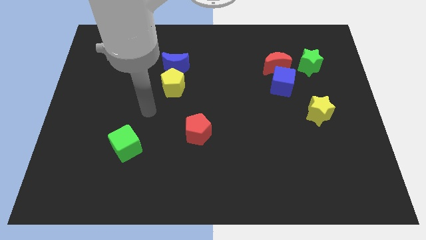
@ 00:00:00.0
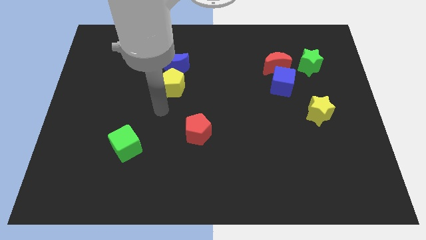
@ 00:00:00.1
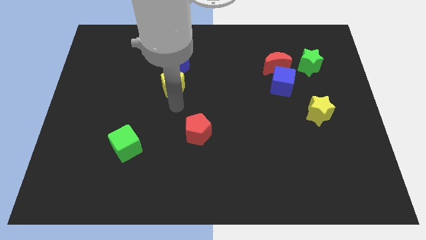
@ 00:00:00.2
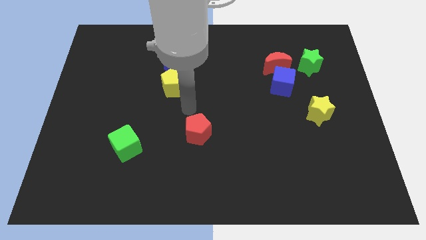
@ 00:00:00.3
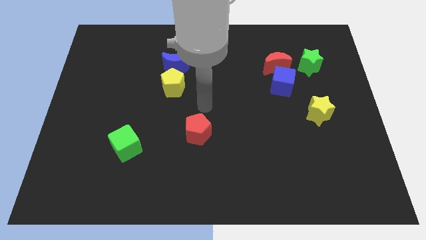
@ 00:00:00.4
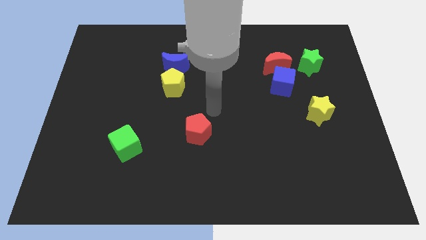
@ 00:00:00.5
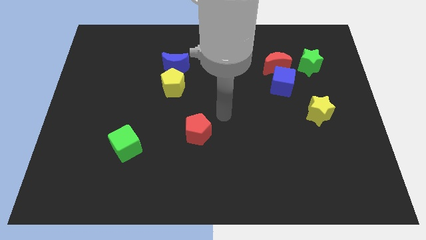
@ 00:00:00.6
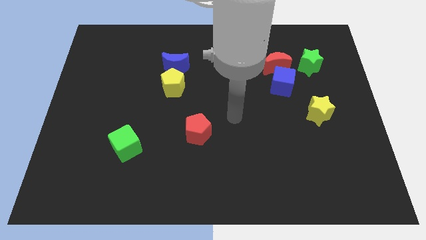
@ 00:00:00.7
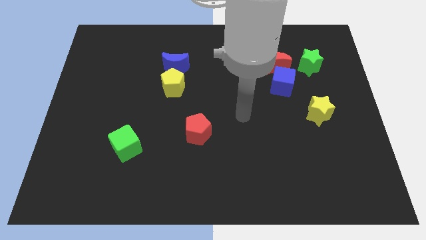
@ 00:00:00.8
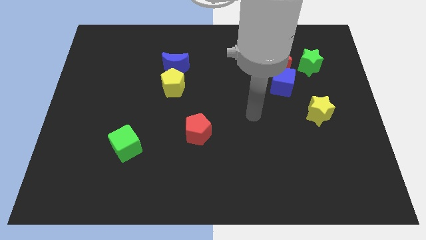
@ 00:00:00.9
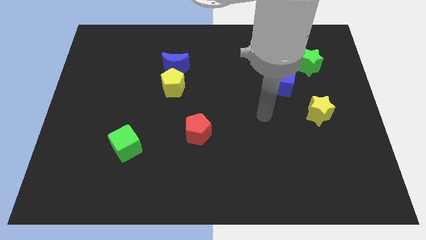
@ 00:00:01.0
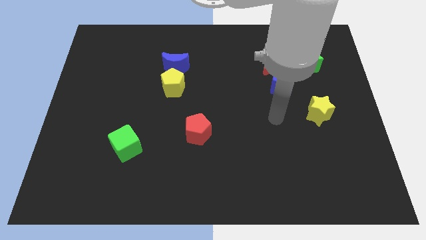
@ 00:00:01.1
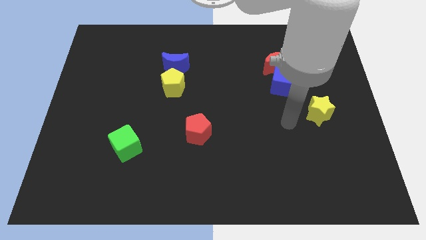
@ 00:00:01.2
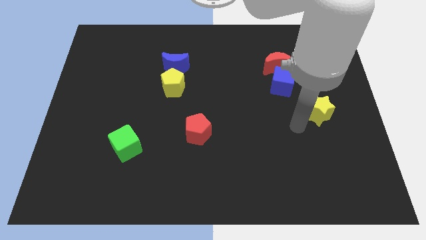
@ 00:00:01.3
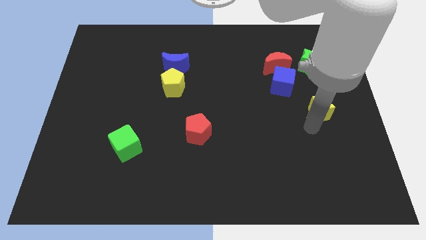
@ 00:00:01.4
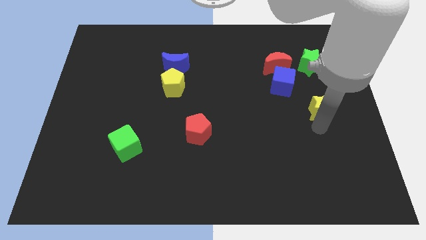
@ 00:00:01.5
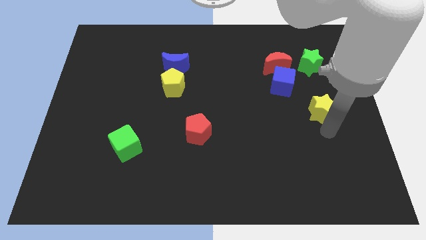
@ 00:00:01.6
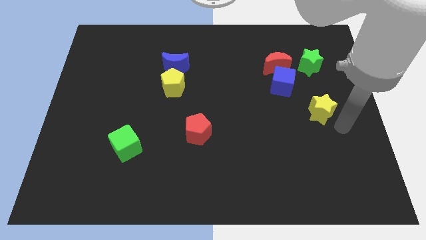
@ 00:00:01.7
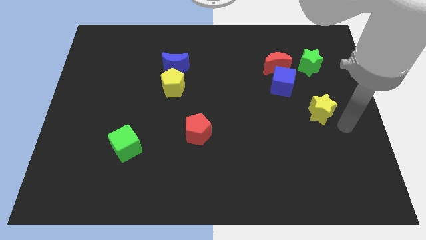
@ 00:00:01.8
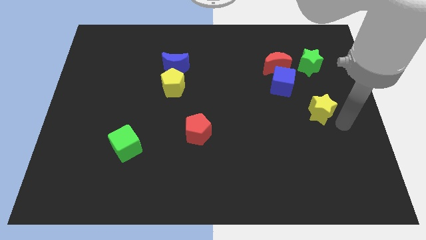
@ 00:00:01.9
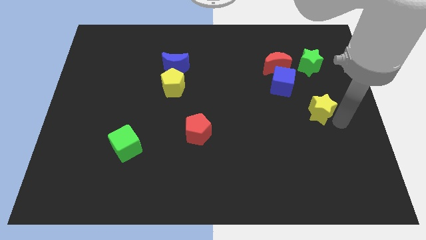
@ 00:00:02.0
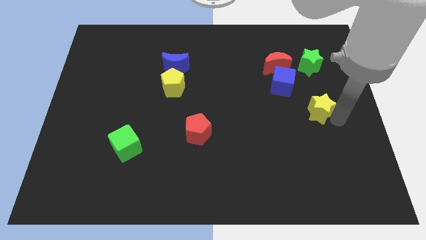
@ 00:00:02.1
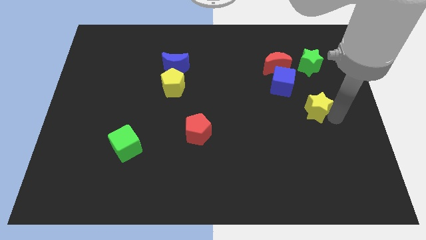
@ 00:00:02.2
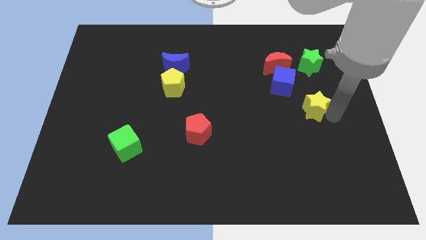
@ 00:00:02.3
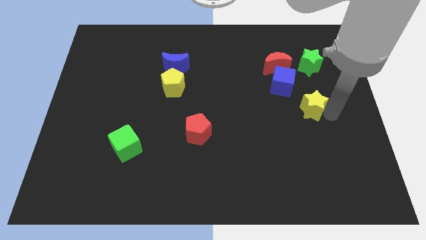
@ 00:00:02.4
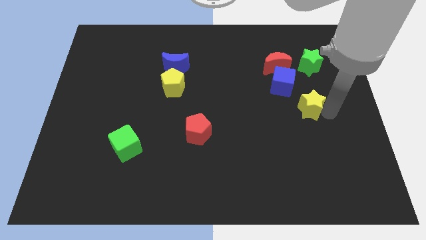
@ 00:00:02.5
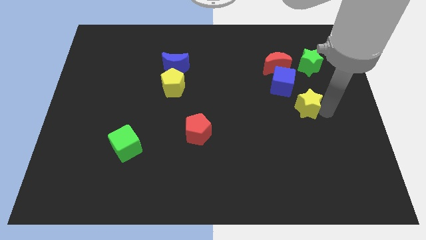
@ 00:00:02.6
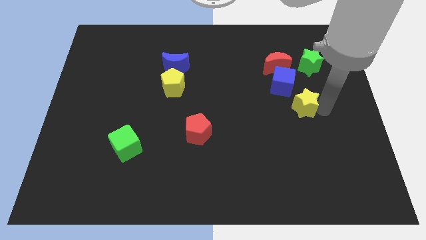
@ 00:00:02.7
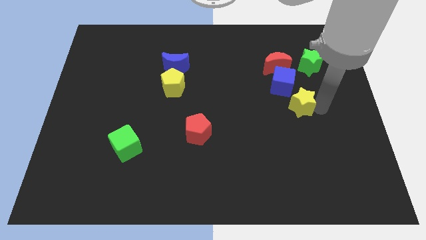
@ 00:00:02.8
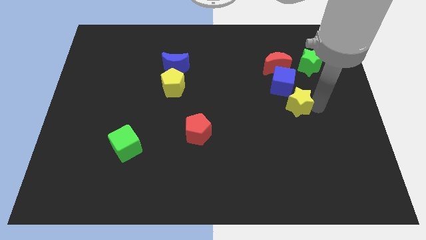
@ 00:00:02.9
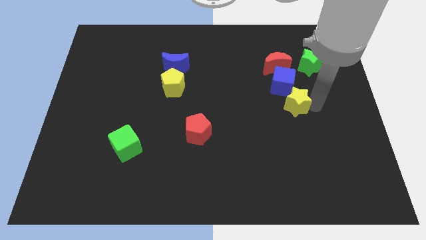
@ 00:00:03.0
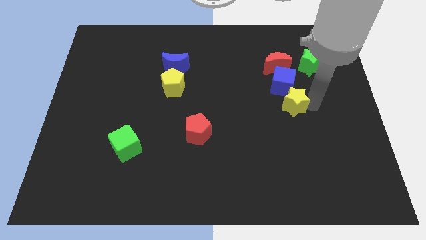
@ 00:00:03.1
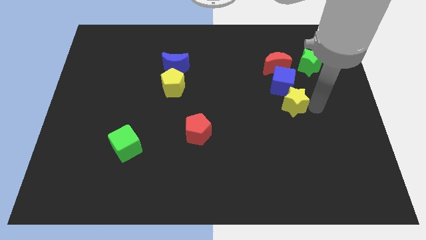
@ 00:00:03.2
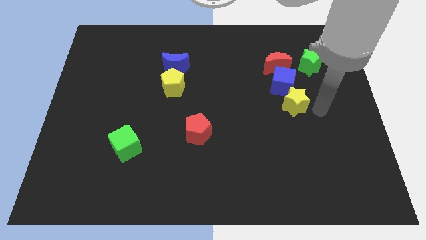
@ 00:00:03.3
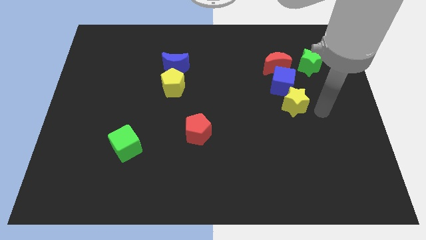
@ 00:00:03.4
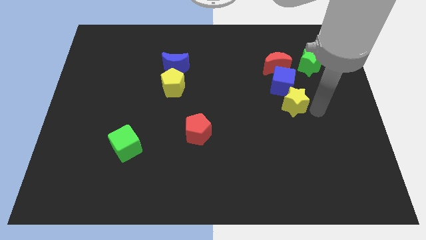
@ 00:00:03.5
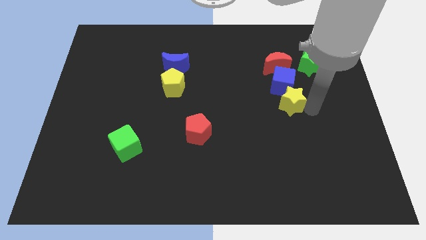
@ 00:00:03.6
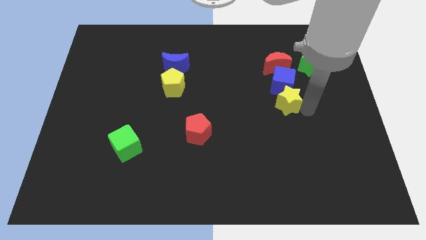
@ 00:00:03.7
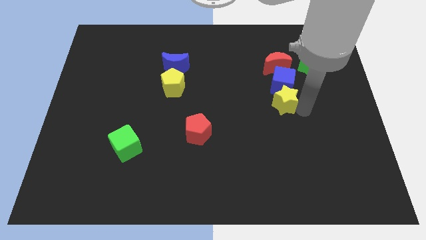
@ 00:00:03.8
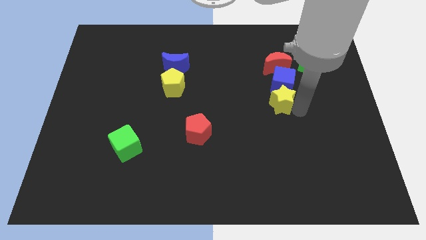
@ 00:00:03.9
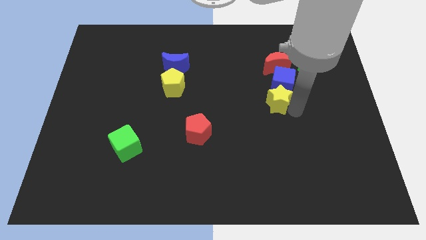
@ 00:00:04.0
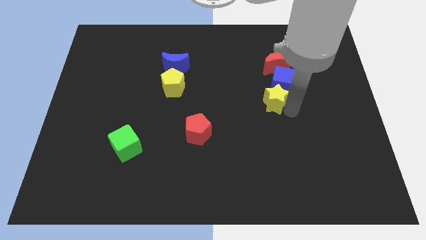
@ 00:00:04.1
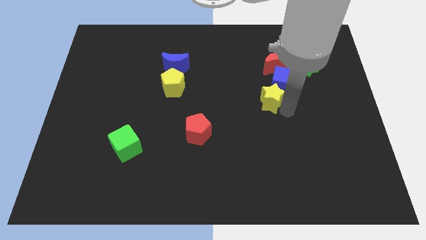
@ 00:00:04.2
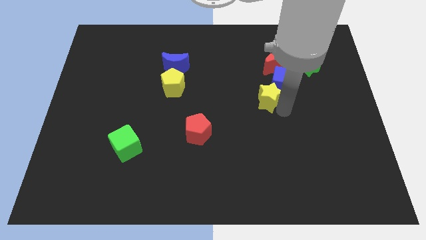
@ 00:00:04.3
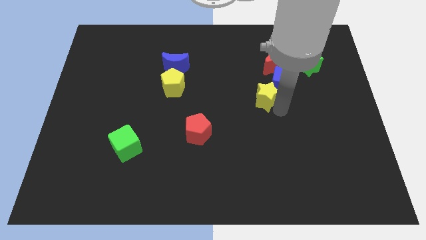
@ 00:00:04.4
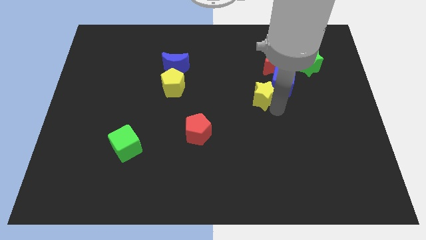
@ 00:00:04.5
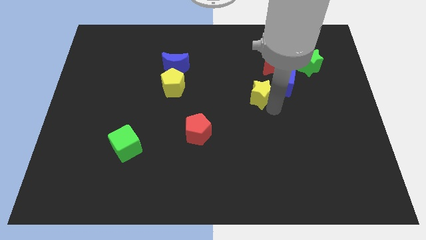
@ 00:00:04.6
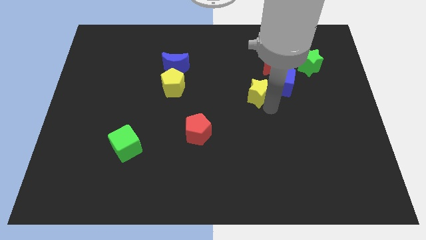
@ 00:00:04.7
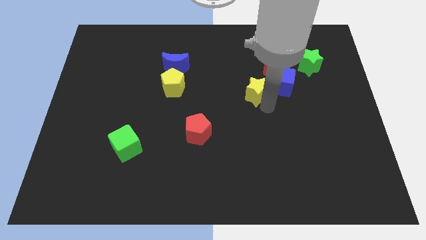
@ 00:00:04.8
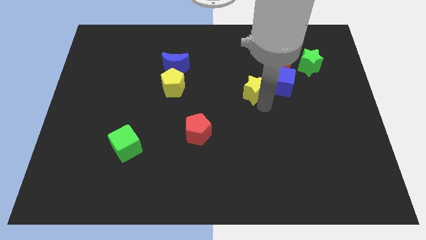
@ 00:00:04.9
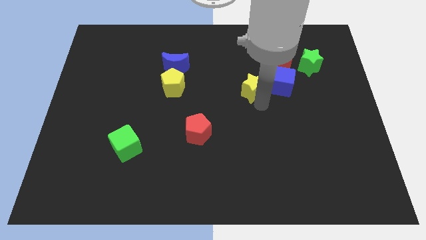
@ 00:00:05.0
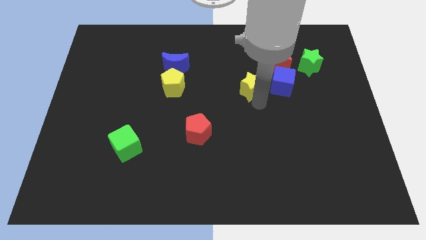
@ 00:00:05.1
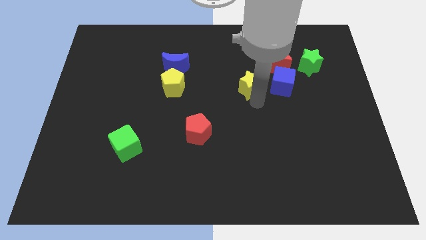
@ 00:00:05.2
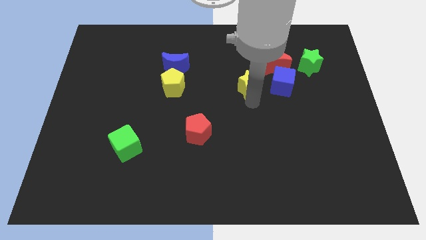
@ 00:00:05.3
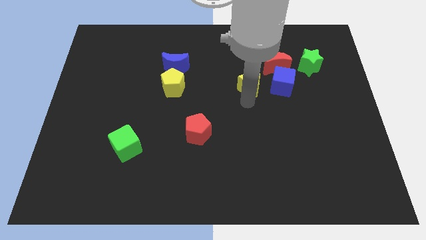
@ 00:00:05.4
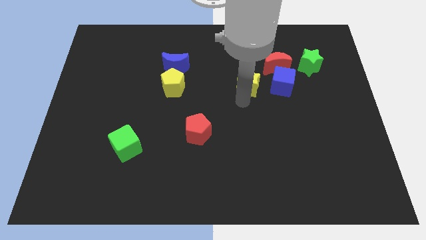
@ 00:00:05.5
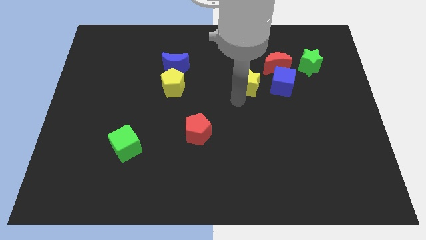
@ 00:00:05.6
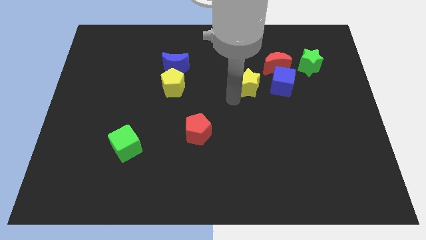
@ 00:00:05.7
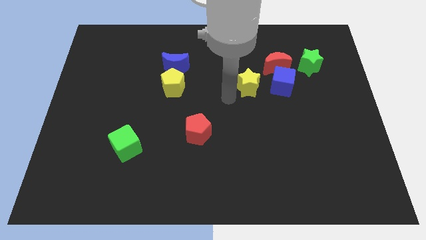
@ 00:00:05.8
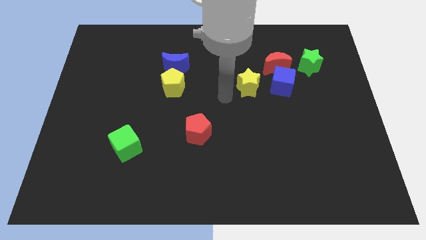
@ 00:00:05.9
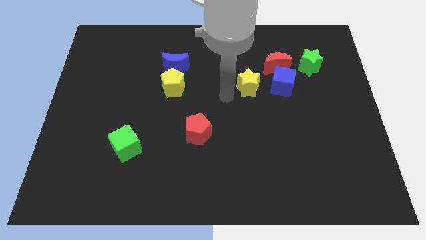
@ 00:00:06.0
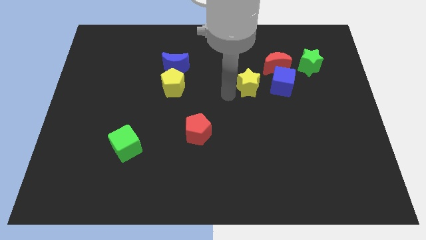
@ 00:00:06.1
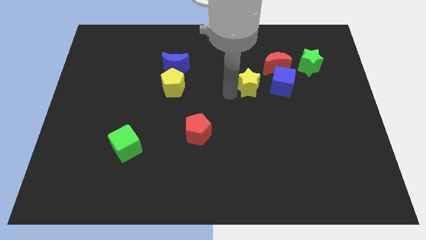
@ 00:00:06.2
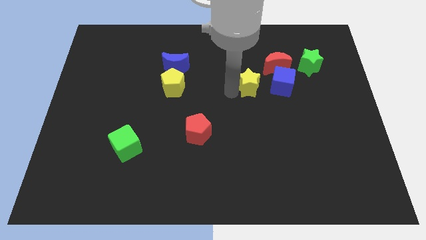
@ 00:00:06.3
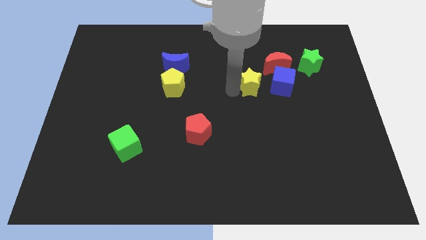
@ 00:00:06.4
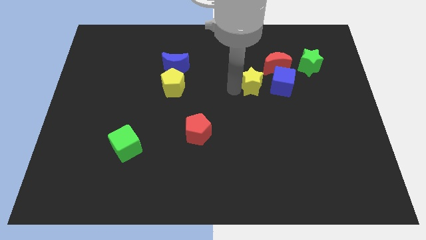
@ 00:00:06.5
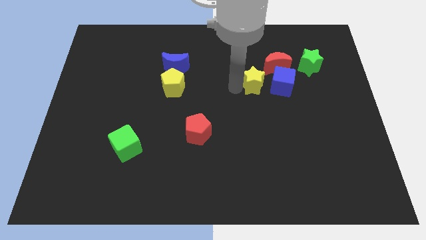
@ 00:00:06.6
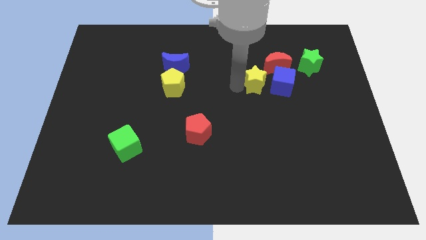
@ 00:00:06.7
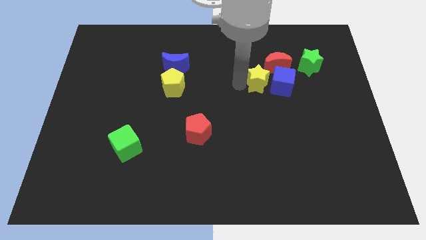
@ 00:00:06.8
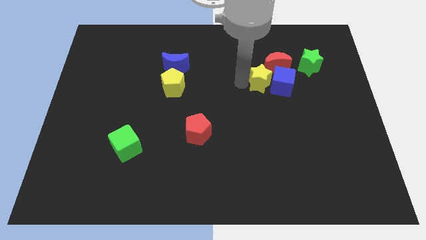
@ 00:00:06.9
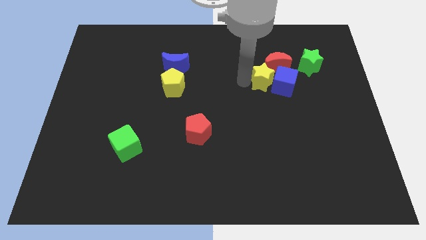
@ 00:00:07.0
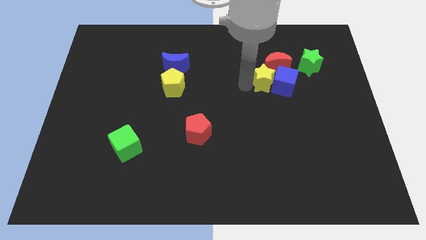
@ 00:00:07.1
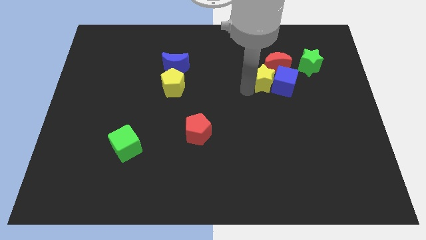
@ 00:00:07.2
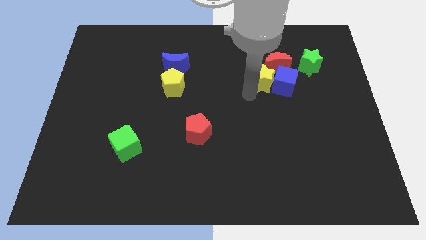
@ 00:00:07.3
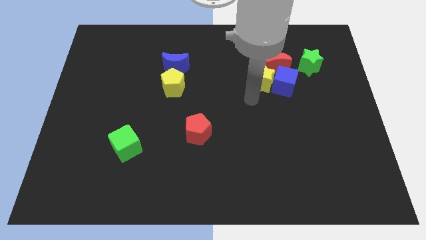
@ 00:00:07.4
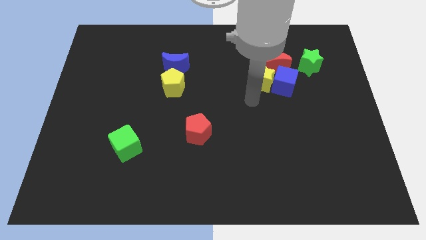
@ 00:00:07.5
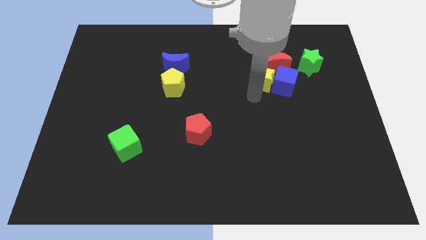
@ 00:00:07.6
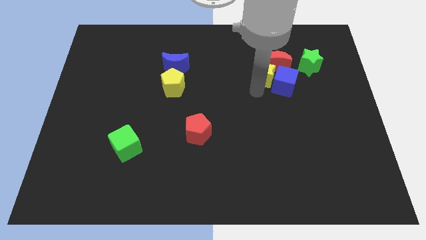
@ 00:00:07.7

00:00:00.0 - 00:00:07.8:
put the yellow star just left of the green star
